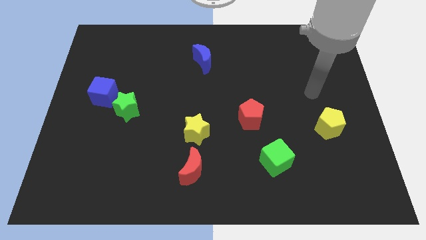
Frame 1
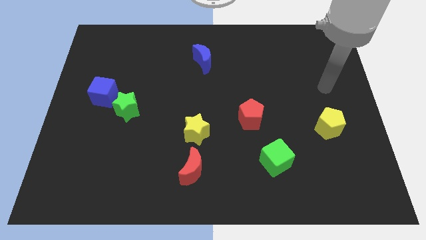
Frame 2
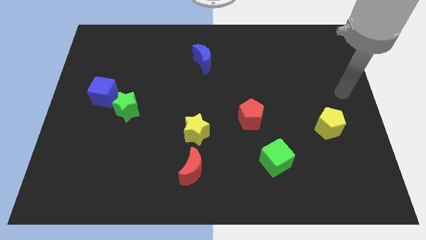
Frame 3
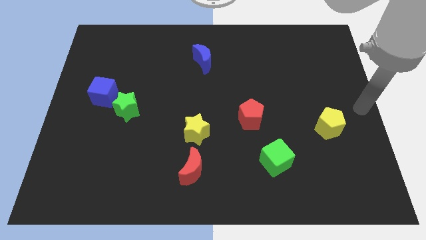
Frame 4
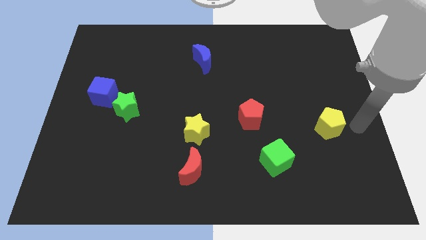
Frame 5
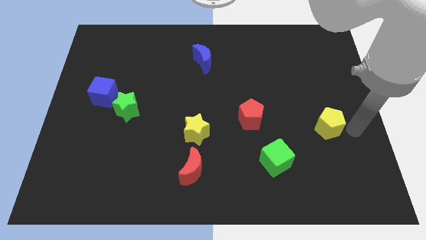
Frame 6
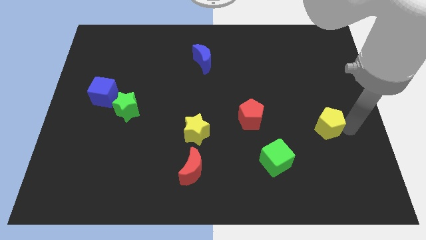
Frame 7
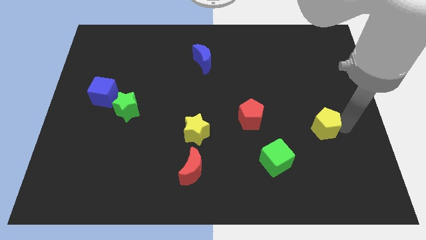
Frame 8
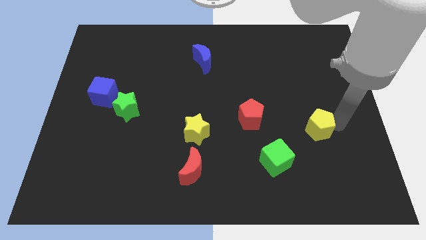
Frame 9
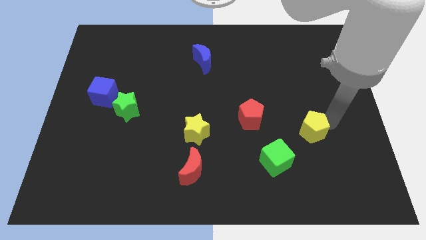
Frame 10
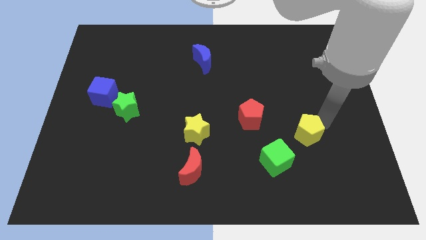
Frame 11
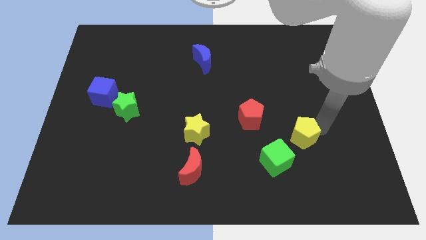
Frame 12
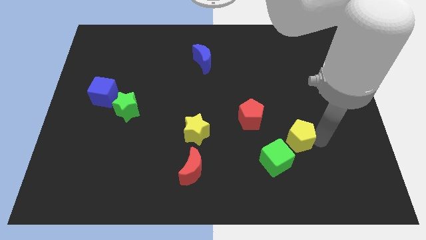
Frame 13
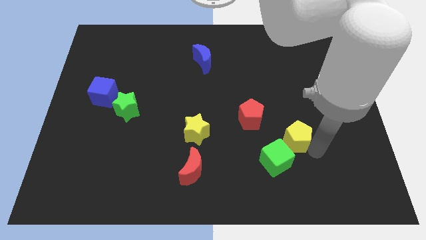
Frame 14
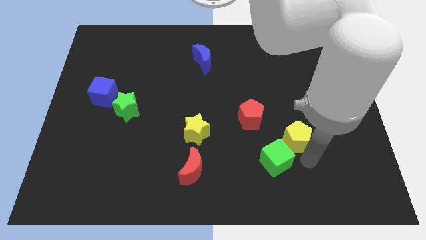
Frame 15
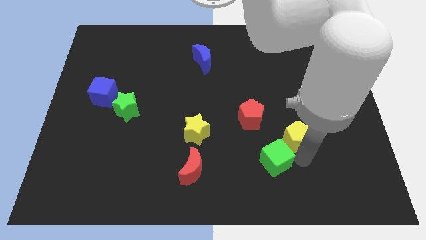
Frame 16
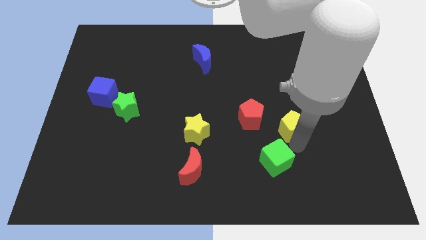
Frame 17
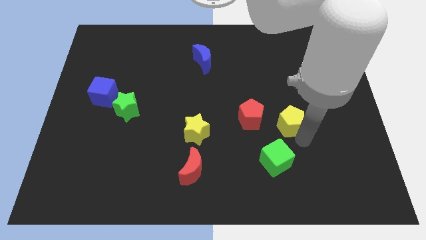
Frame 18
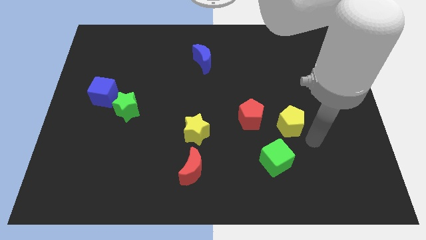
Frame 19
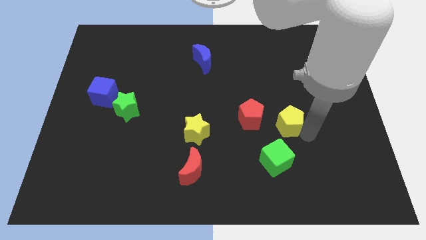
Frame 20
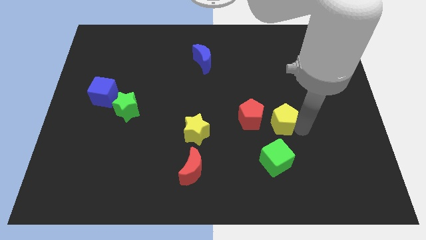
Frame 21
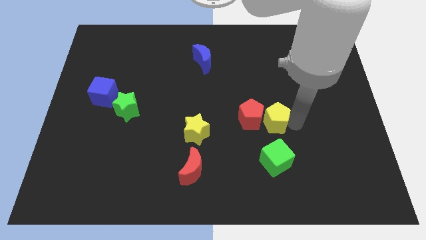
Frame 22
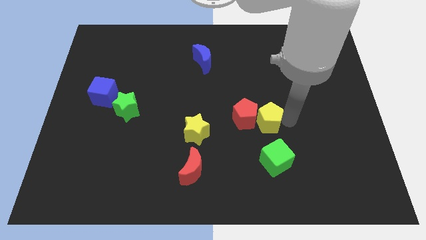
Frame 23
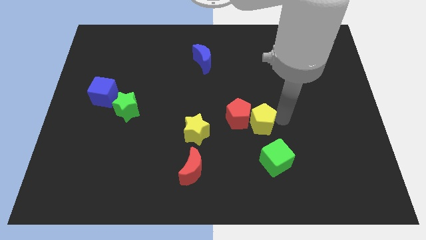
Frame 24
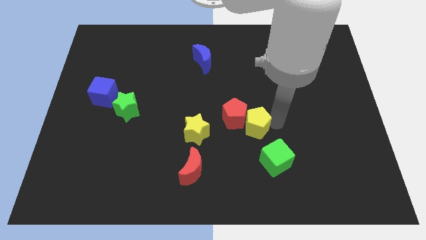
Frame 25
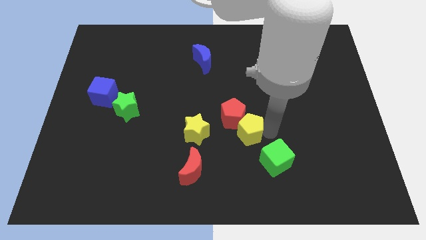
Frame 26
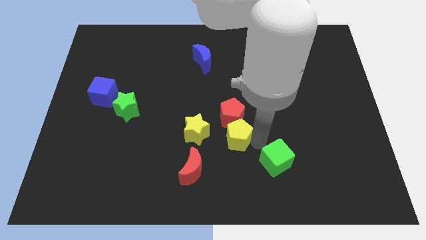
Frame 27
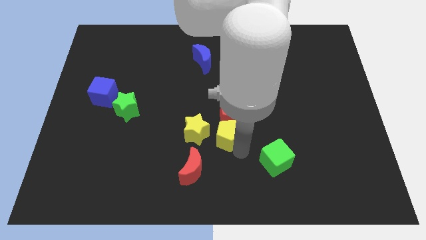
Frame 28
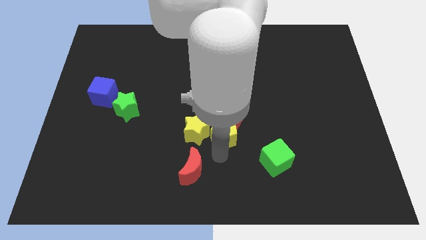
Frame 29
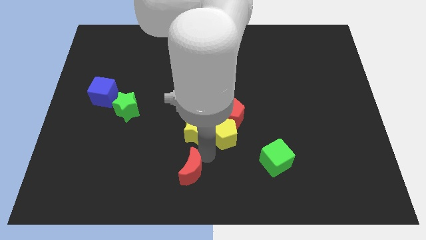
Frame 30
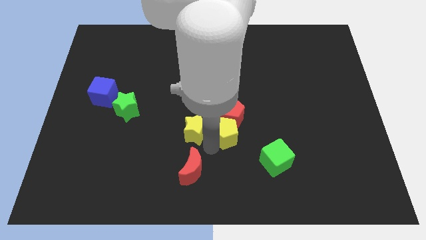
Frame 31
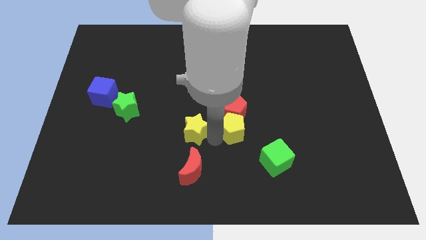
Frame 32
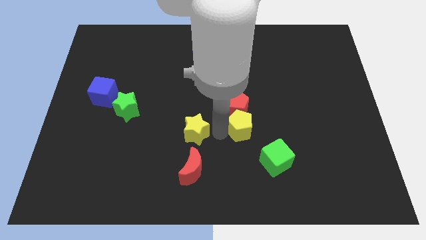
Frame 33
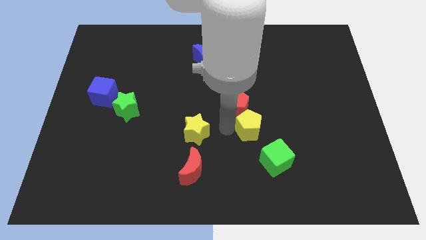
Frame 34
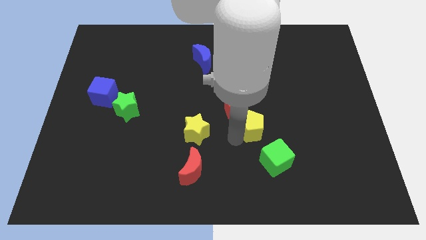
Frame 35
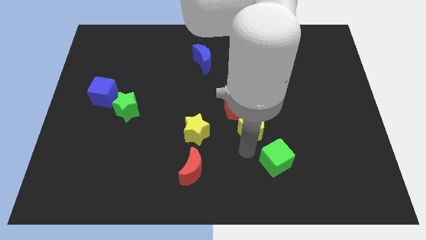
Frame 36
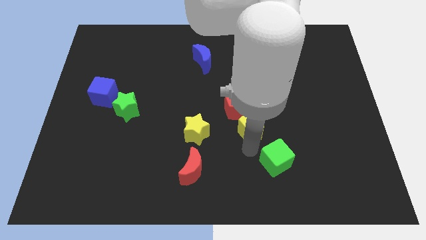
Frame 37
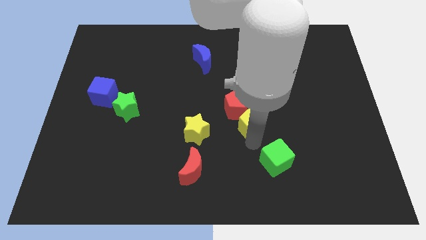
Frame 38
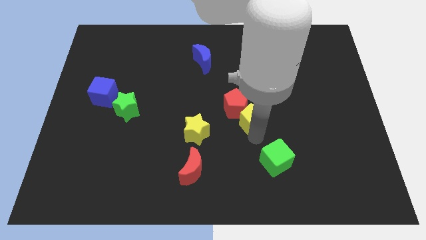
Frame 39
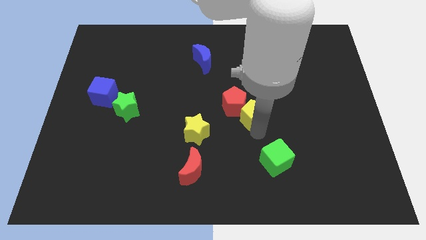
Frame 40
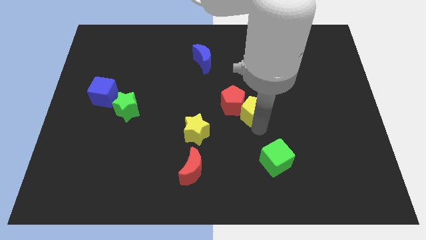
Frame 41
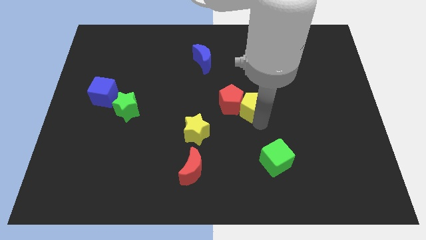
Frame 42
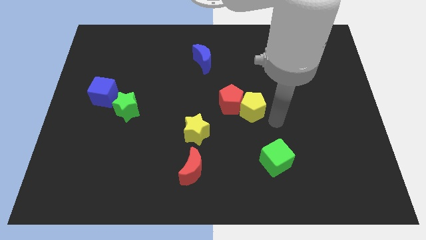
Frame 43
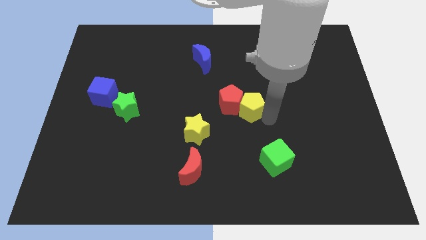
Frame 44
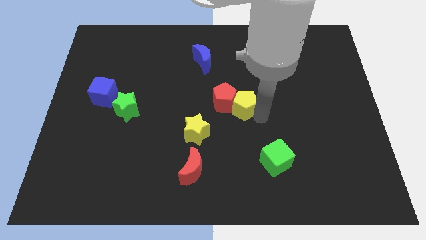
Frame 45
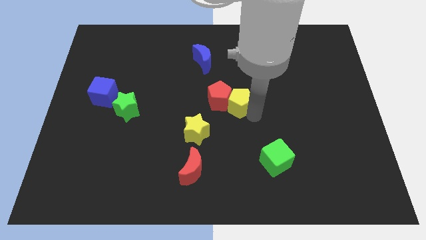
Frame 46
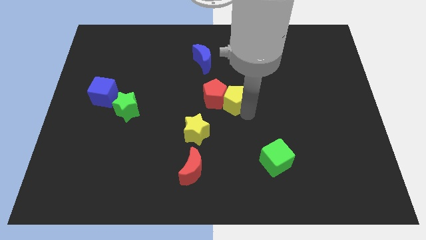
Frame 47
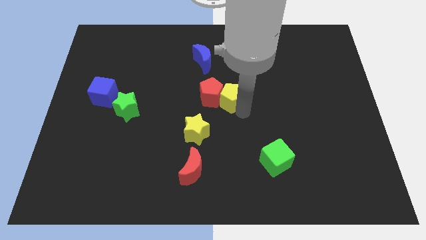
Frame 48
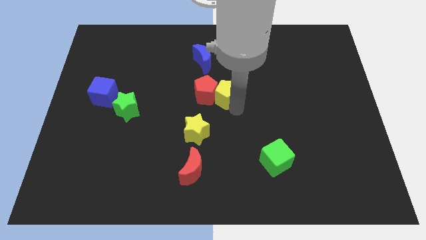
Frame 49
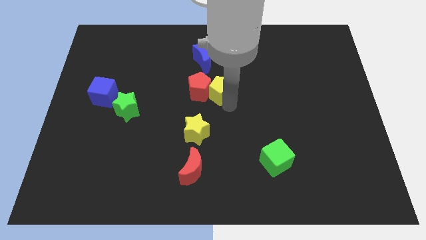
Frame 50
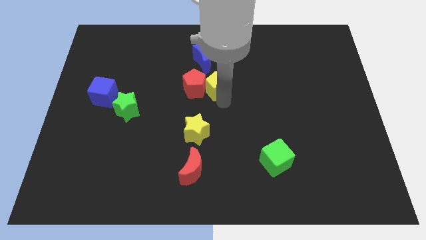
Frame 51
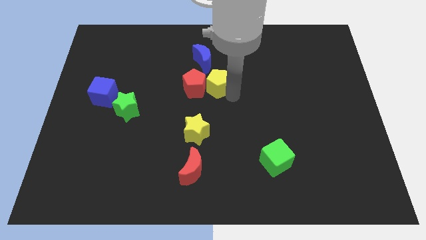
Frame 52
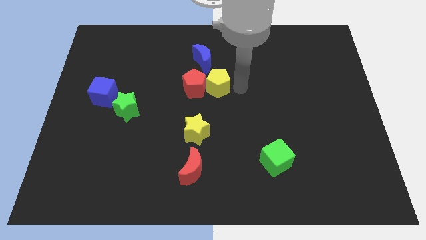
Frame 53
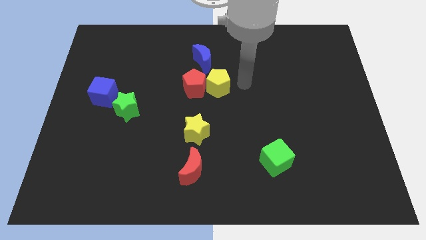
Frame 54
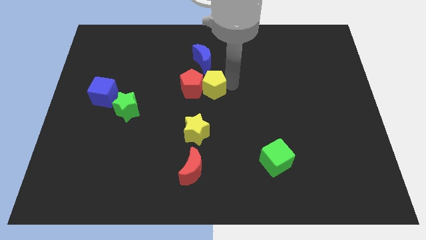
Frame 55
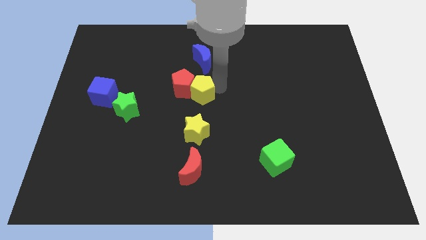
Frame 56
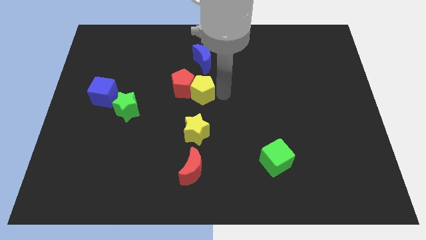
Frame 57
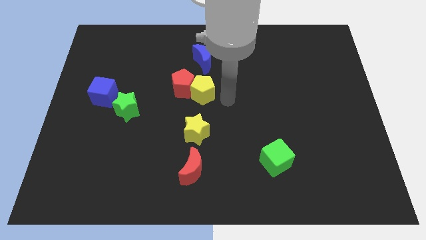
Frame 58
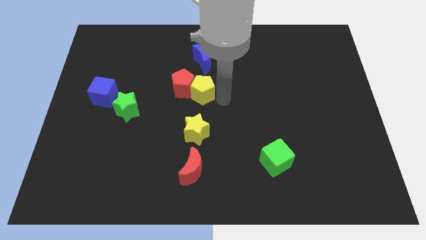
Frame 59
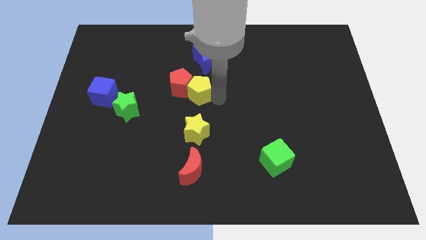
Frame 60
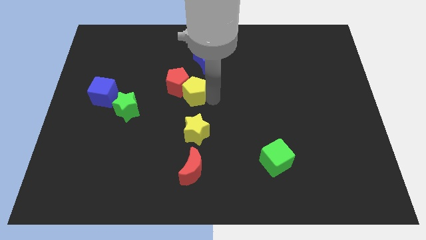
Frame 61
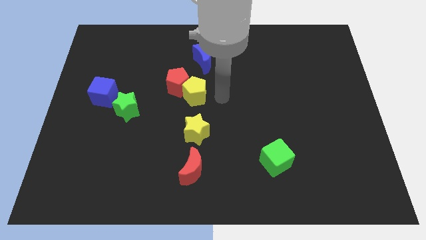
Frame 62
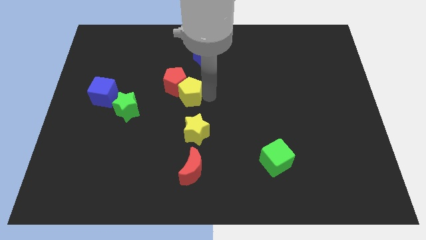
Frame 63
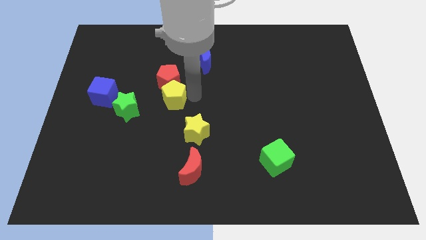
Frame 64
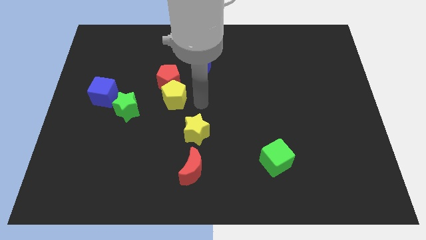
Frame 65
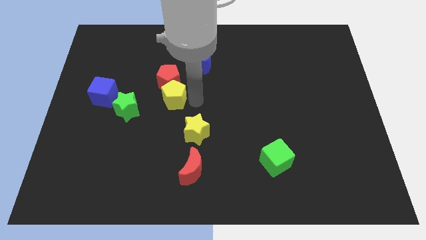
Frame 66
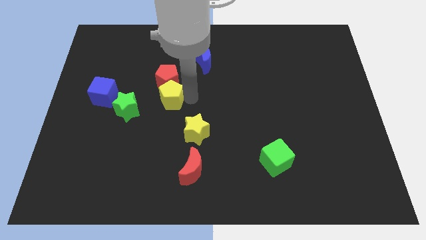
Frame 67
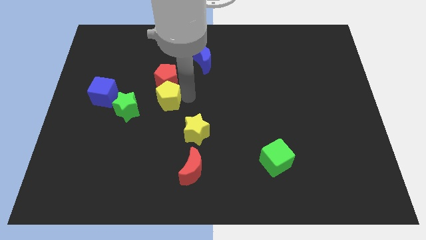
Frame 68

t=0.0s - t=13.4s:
slide the yellow pentagon to the top right of the green star
